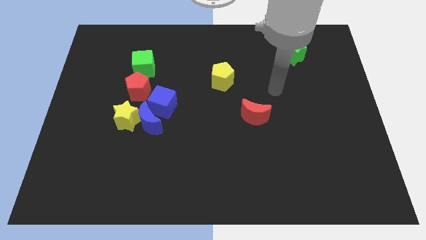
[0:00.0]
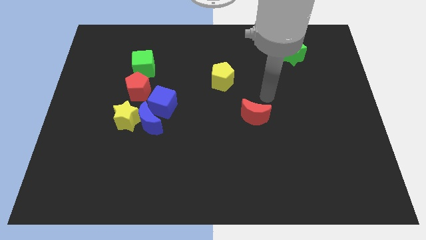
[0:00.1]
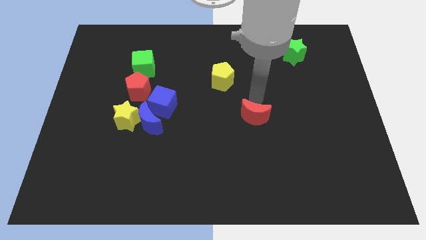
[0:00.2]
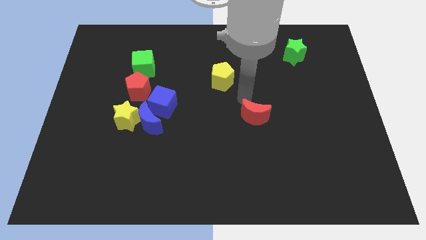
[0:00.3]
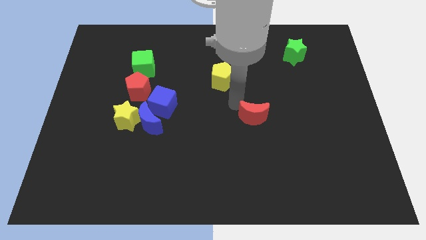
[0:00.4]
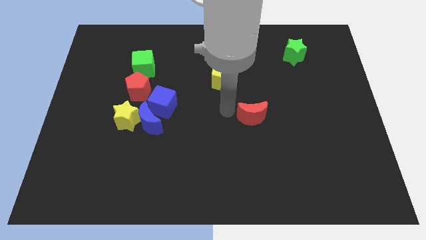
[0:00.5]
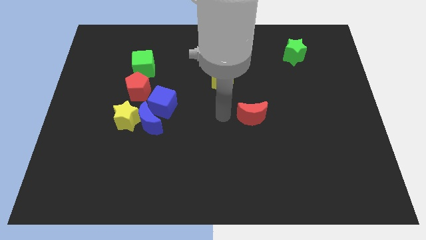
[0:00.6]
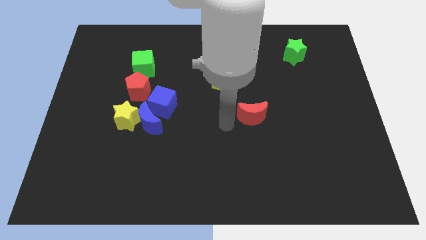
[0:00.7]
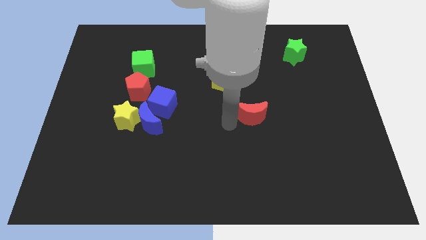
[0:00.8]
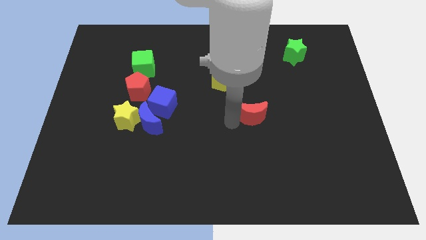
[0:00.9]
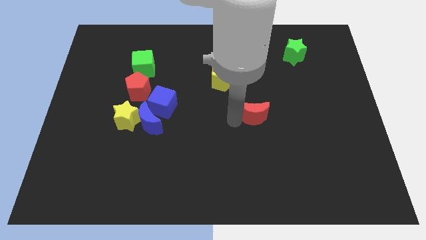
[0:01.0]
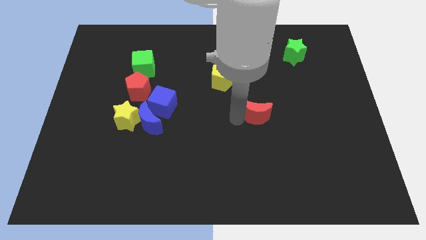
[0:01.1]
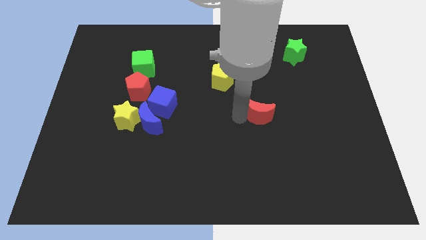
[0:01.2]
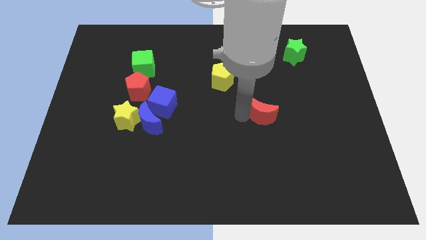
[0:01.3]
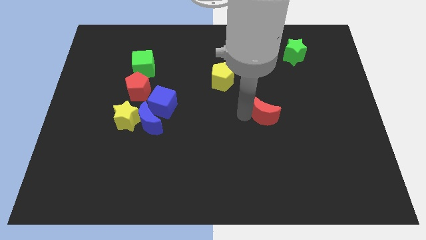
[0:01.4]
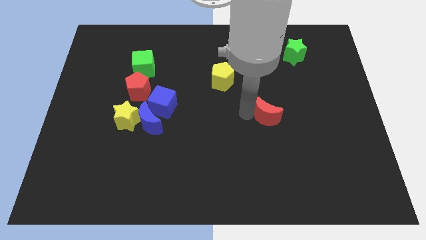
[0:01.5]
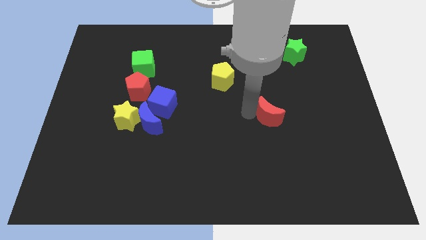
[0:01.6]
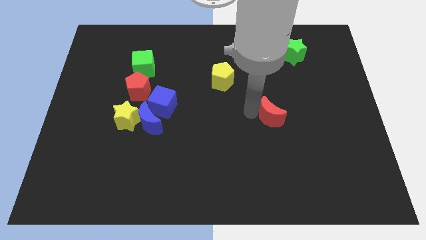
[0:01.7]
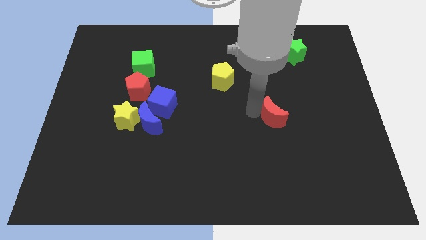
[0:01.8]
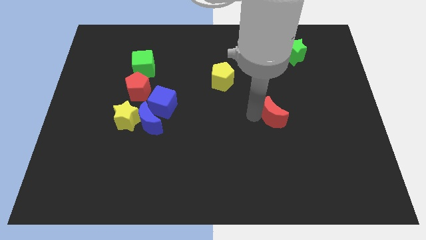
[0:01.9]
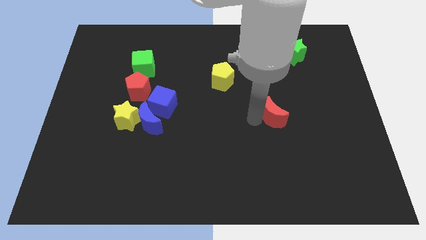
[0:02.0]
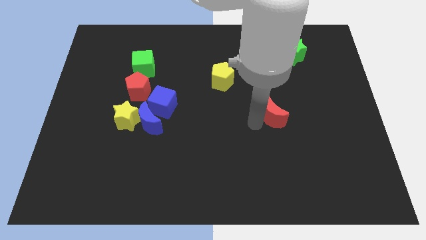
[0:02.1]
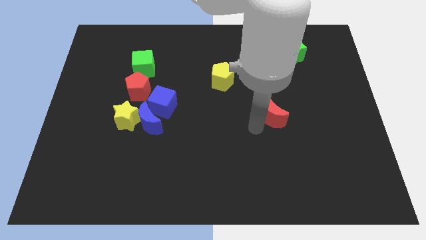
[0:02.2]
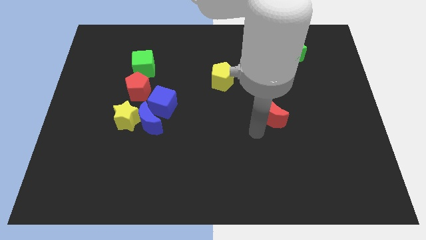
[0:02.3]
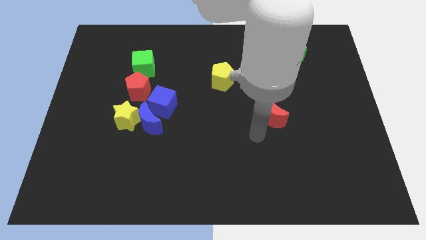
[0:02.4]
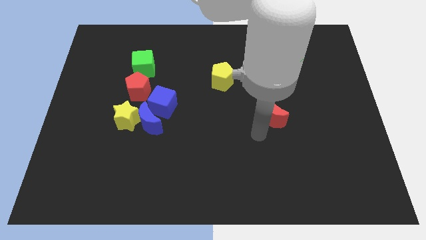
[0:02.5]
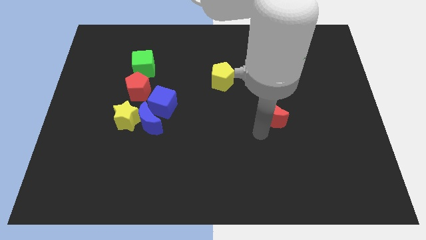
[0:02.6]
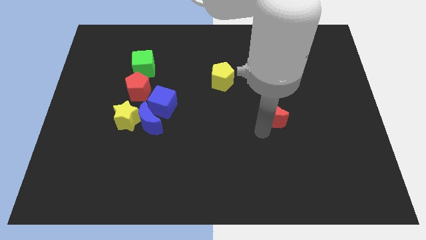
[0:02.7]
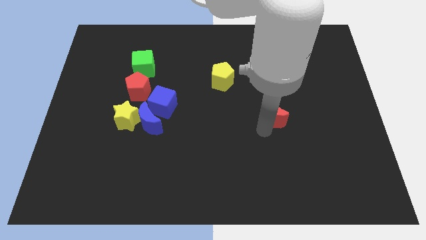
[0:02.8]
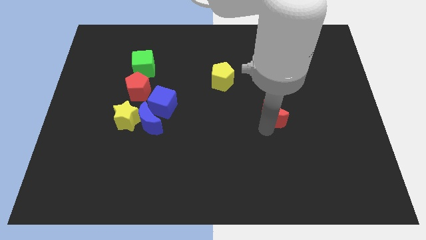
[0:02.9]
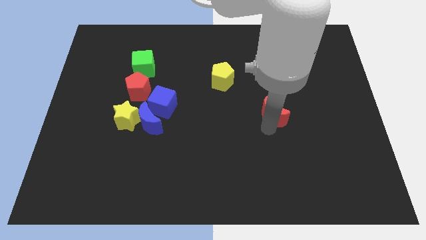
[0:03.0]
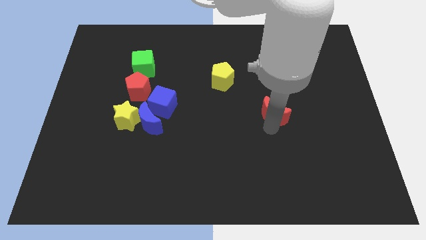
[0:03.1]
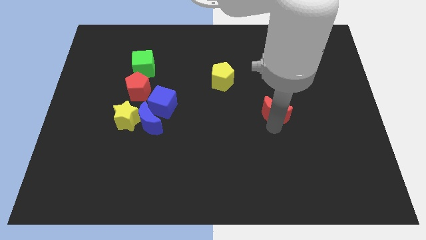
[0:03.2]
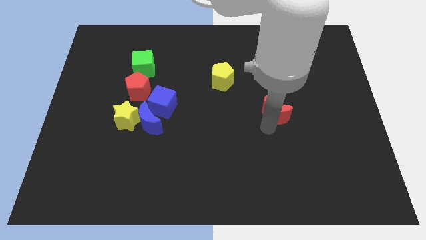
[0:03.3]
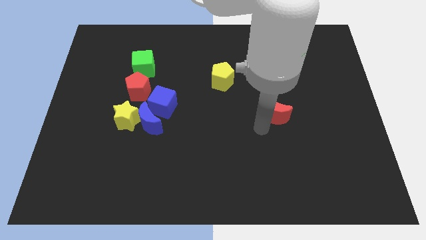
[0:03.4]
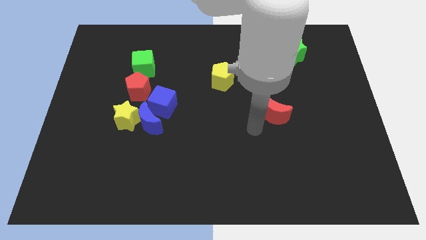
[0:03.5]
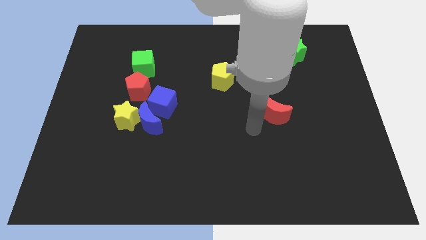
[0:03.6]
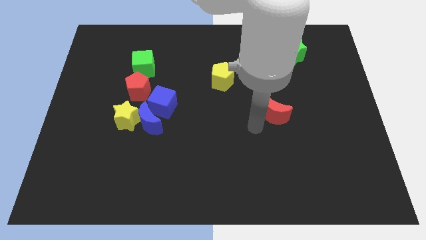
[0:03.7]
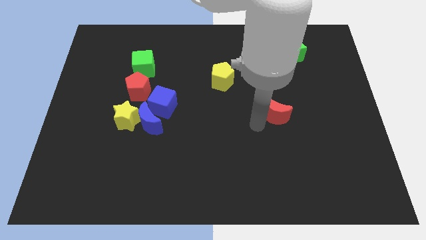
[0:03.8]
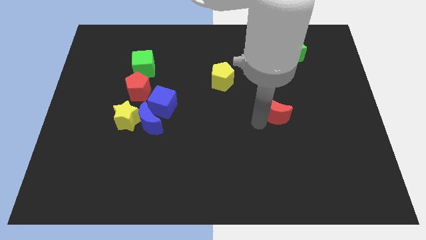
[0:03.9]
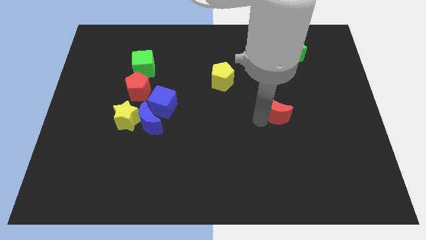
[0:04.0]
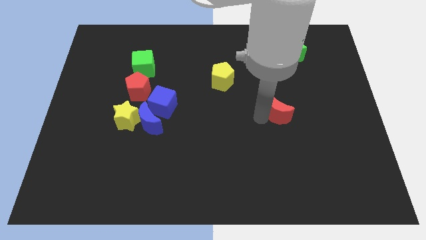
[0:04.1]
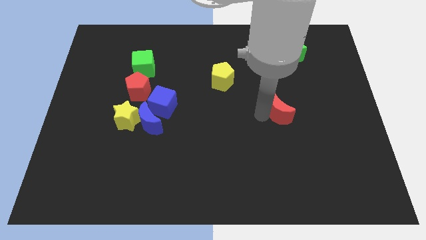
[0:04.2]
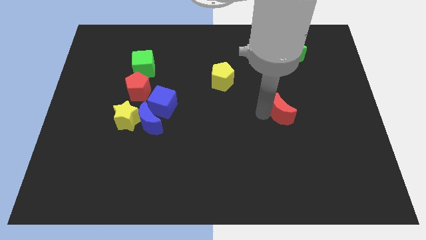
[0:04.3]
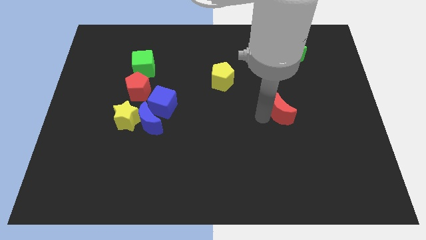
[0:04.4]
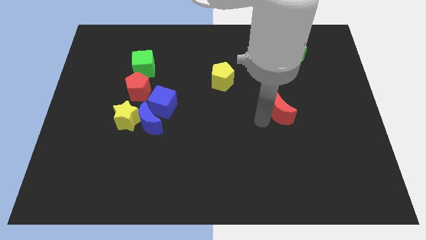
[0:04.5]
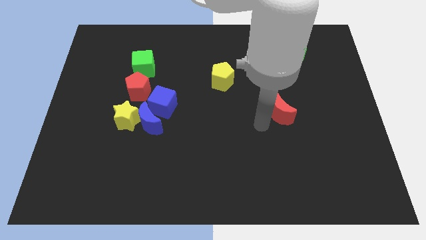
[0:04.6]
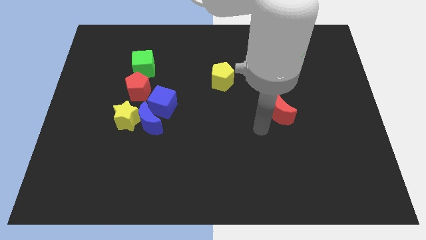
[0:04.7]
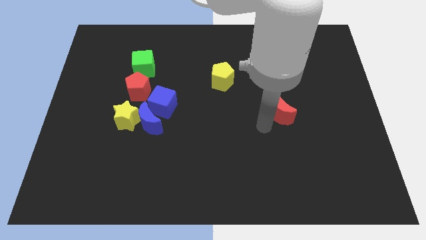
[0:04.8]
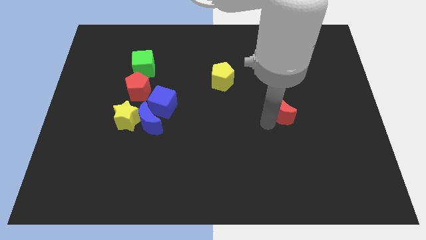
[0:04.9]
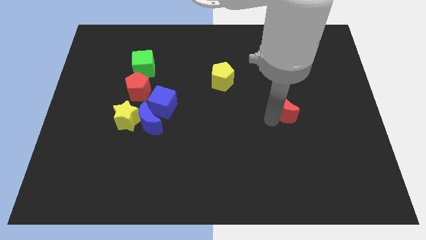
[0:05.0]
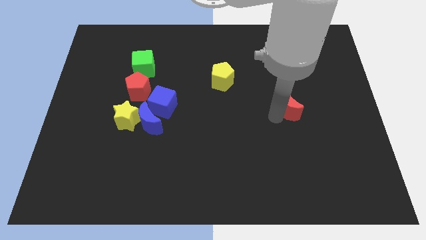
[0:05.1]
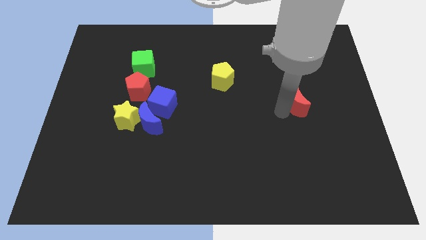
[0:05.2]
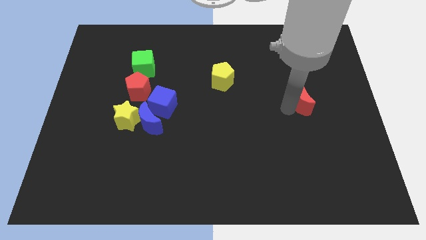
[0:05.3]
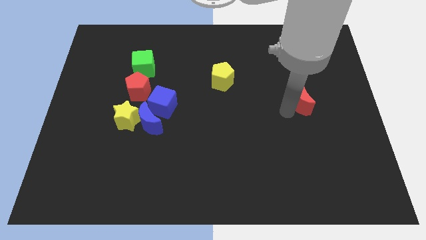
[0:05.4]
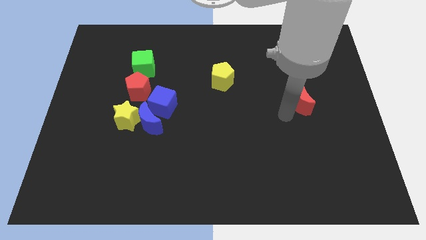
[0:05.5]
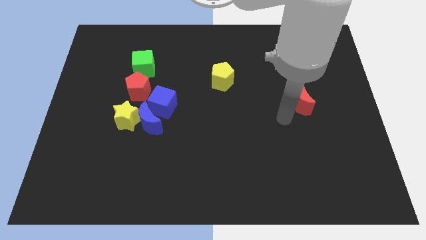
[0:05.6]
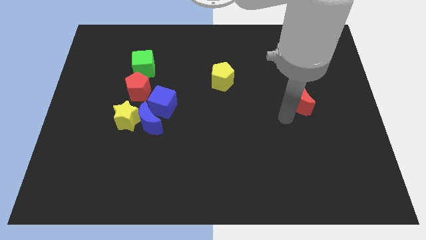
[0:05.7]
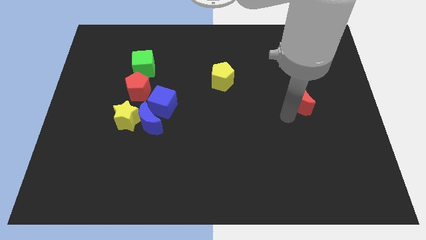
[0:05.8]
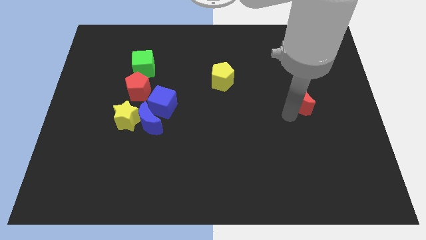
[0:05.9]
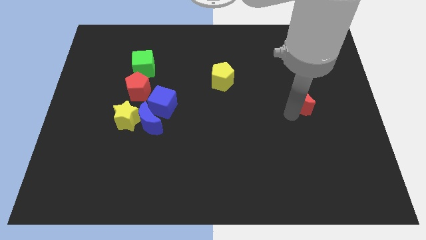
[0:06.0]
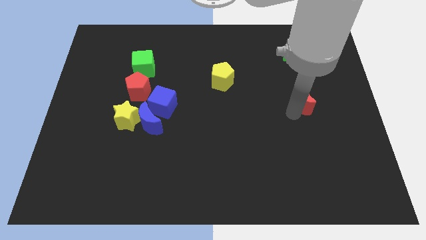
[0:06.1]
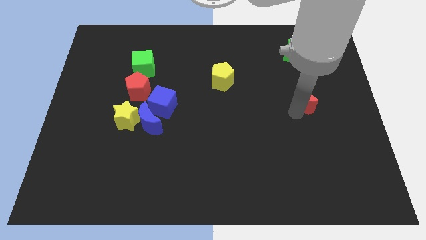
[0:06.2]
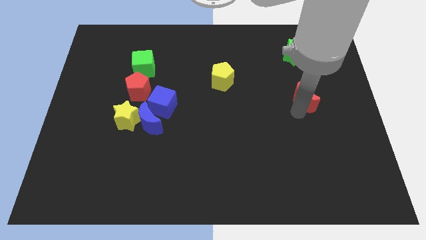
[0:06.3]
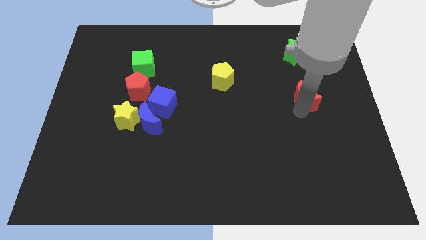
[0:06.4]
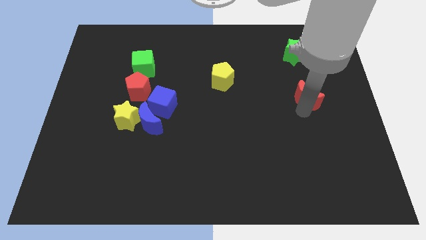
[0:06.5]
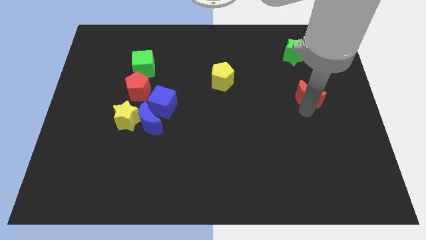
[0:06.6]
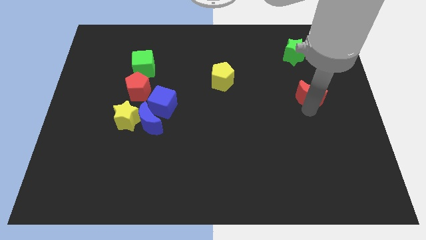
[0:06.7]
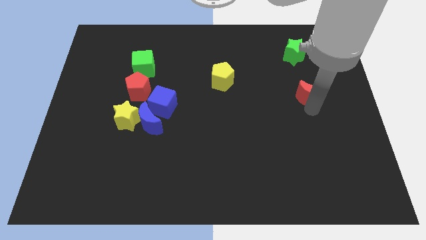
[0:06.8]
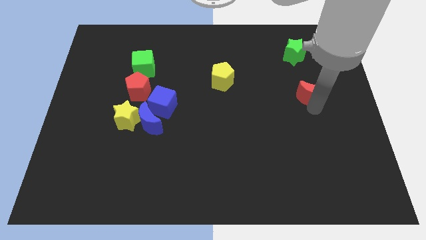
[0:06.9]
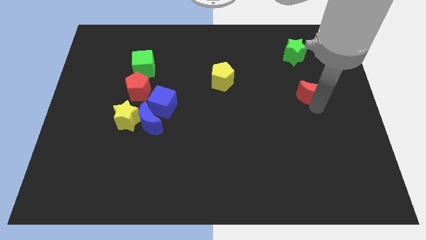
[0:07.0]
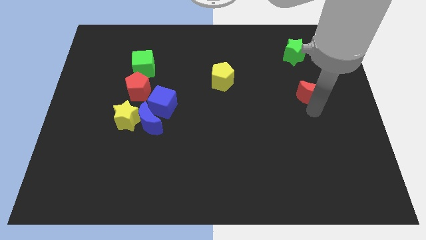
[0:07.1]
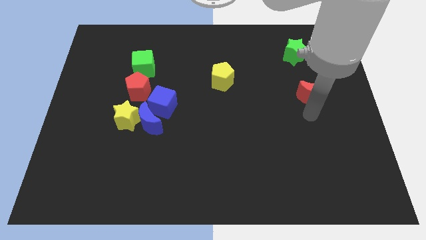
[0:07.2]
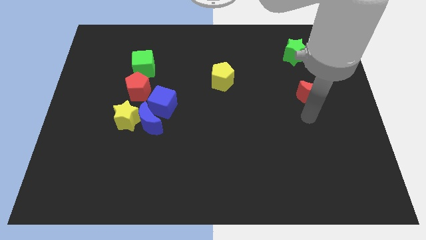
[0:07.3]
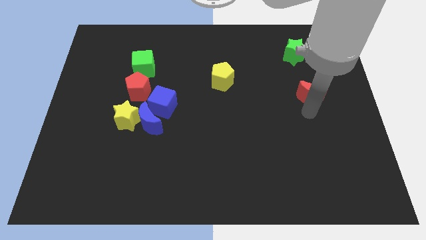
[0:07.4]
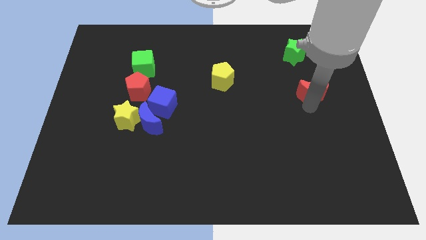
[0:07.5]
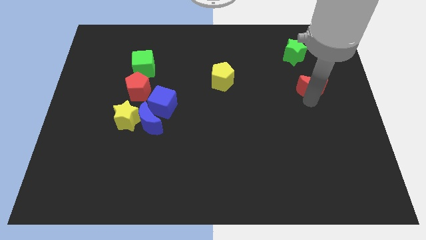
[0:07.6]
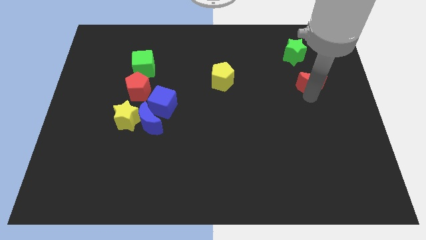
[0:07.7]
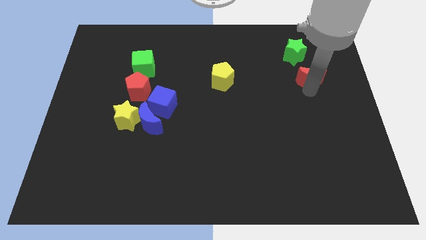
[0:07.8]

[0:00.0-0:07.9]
put the red moon diagonally down and to the right of the green star
